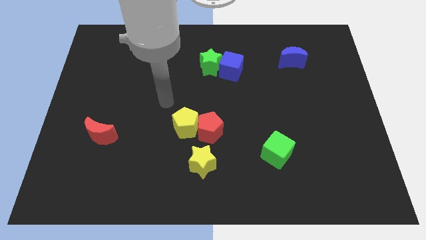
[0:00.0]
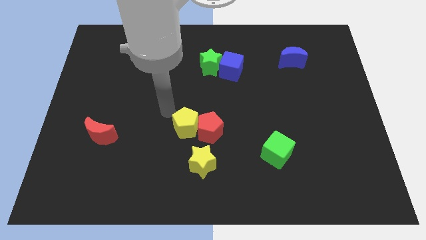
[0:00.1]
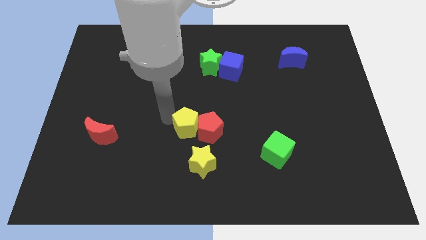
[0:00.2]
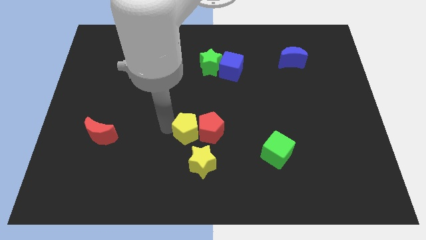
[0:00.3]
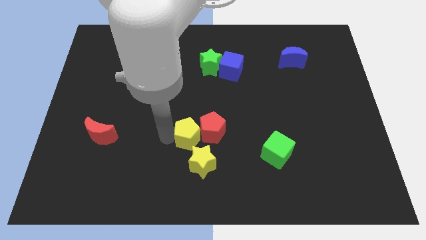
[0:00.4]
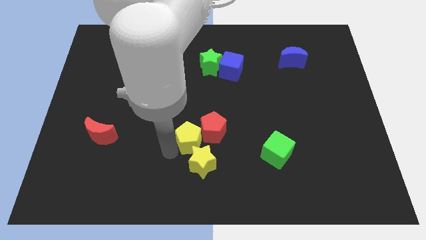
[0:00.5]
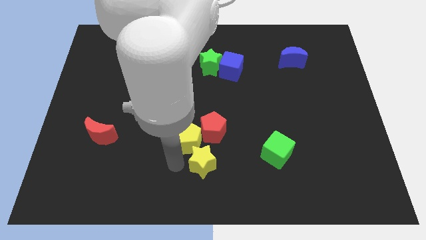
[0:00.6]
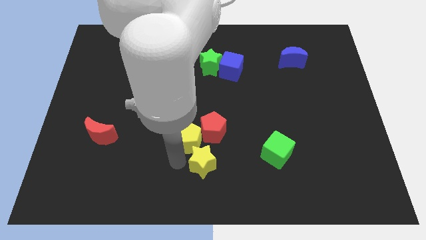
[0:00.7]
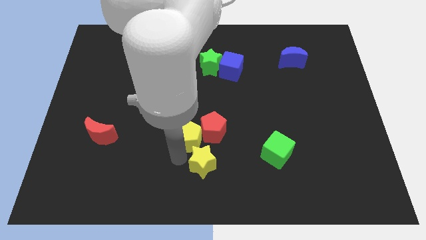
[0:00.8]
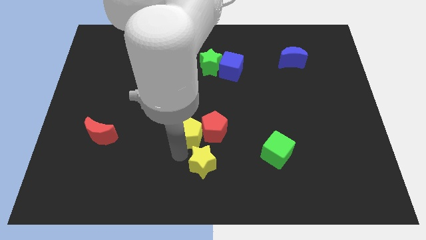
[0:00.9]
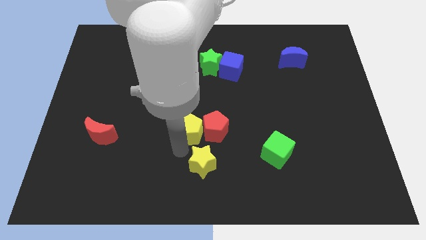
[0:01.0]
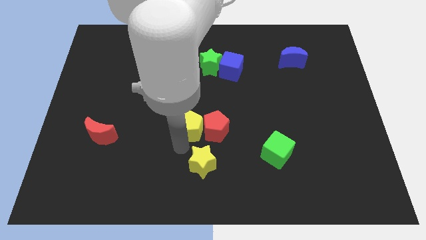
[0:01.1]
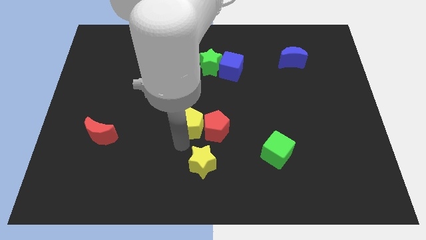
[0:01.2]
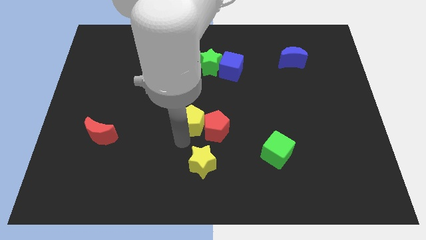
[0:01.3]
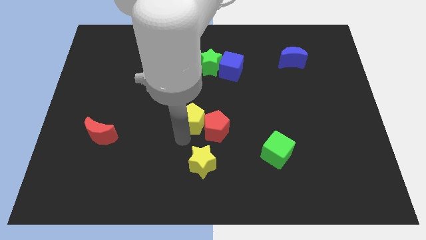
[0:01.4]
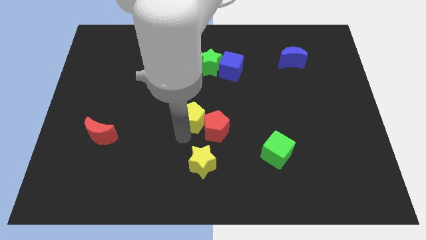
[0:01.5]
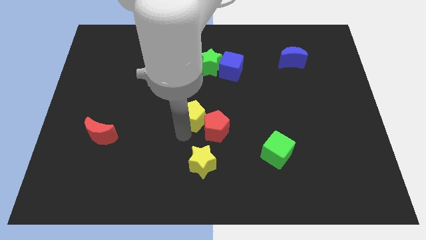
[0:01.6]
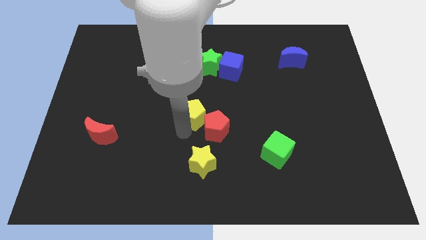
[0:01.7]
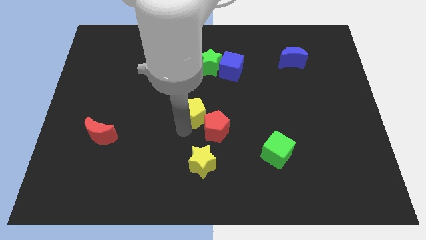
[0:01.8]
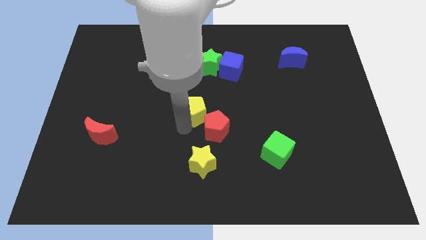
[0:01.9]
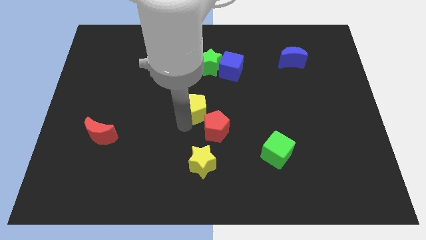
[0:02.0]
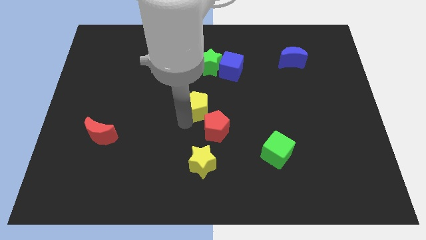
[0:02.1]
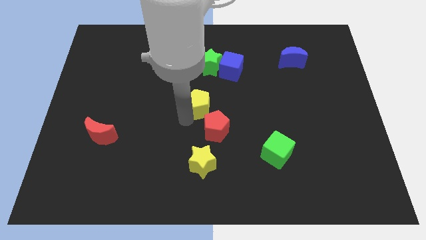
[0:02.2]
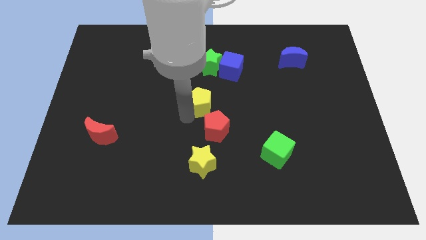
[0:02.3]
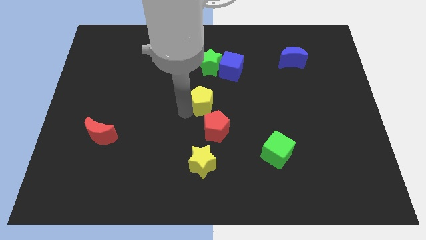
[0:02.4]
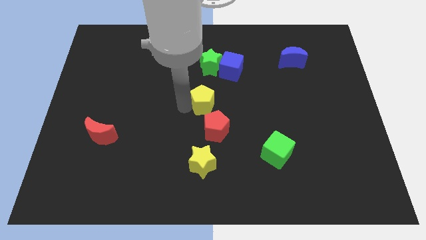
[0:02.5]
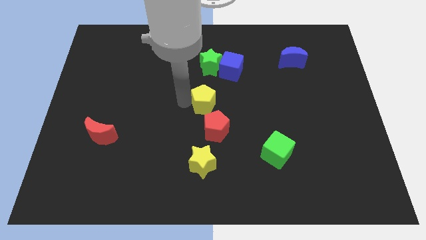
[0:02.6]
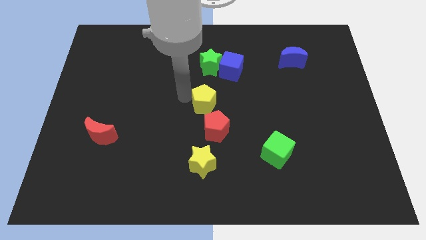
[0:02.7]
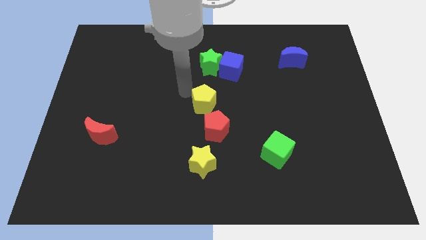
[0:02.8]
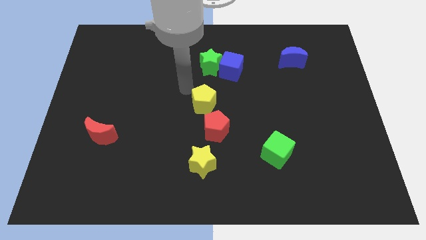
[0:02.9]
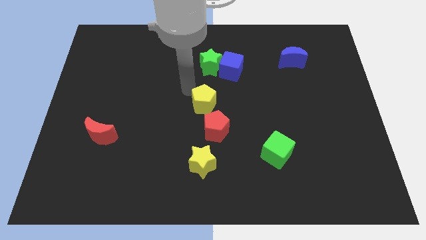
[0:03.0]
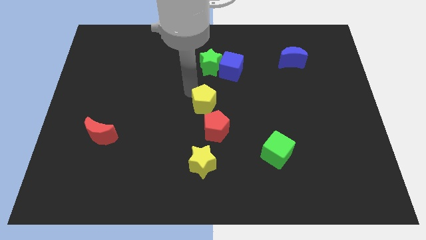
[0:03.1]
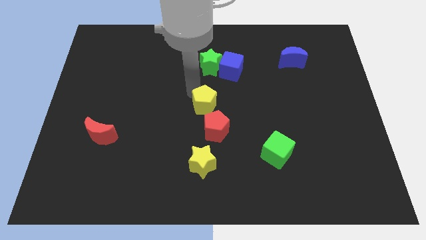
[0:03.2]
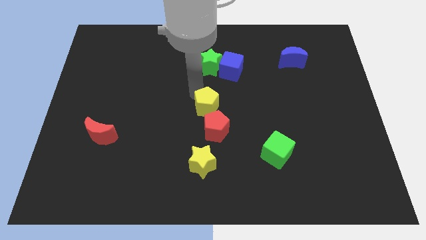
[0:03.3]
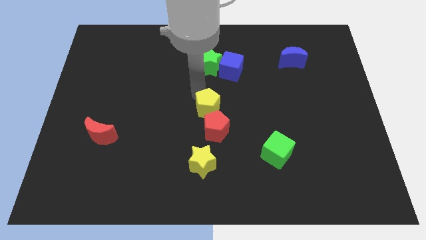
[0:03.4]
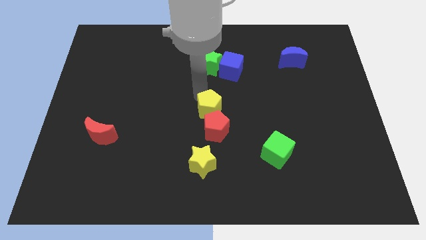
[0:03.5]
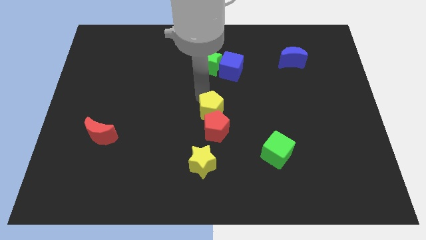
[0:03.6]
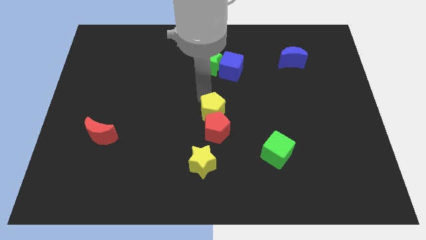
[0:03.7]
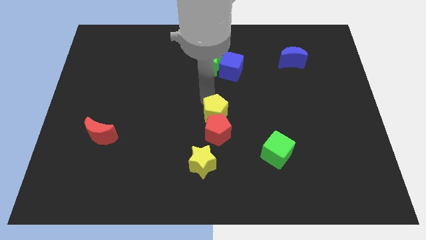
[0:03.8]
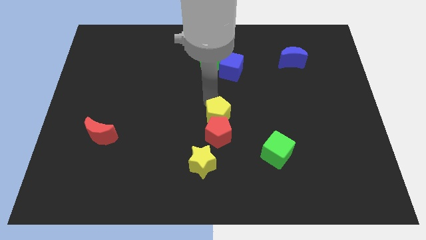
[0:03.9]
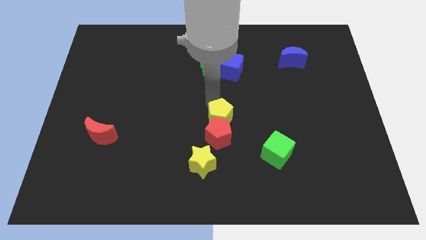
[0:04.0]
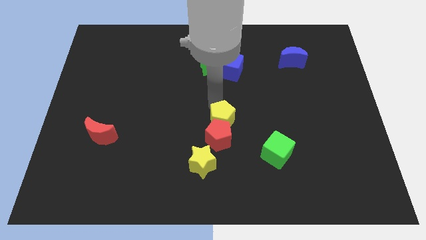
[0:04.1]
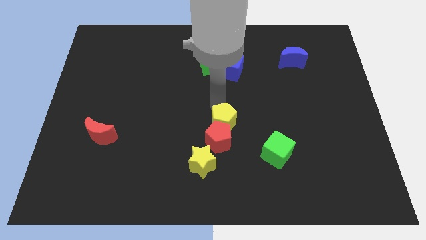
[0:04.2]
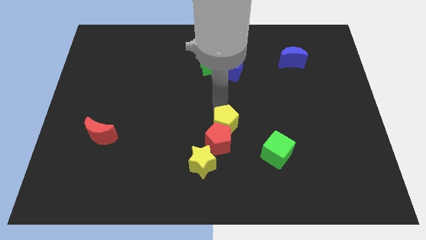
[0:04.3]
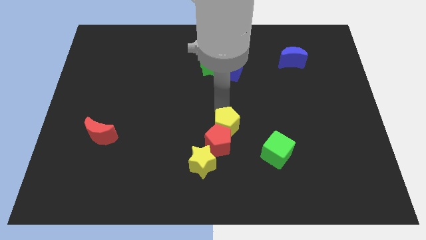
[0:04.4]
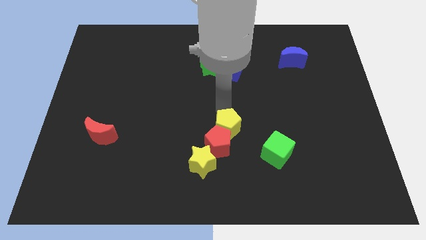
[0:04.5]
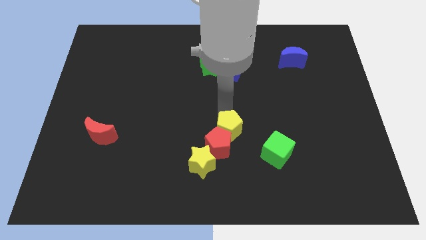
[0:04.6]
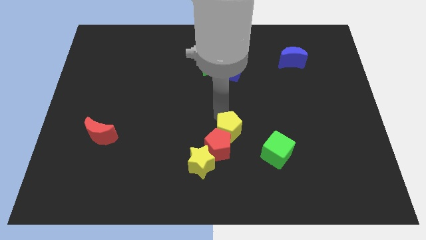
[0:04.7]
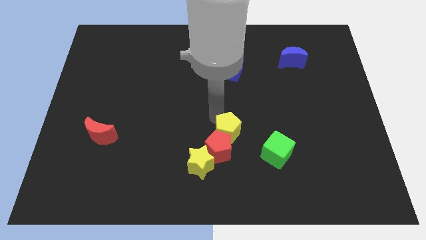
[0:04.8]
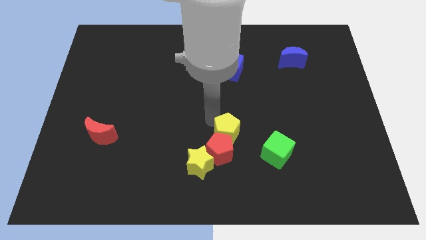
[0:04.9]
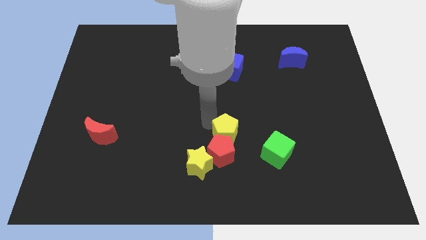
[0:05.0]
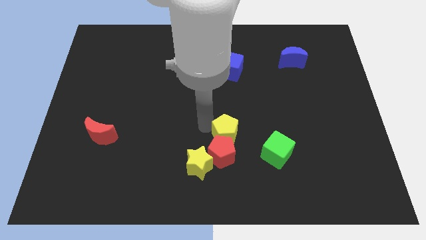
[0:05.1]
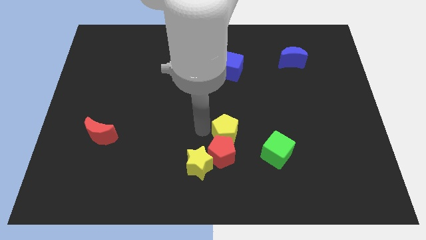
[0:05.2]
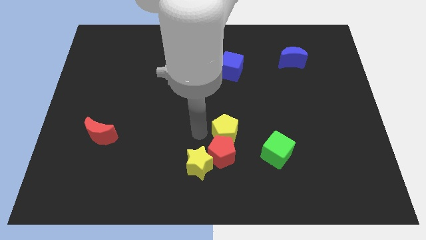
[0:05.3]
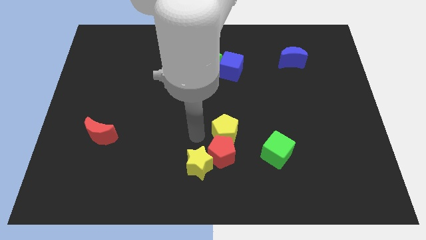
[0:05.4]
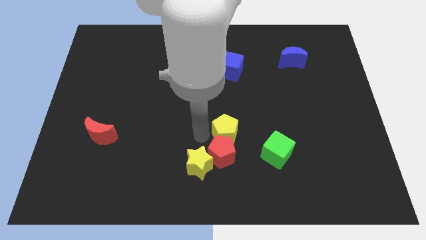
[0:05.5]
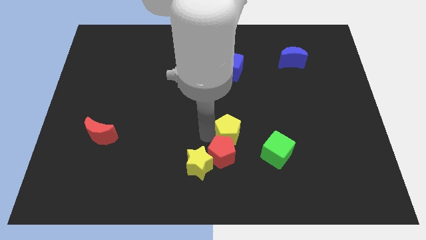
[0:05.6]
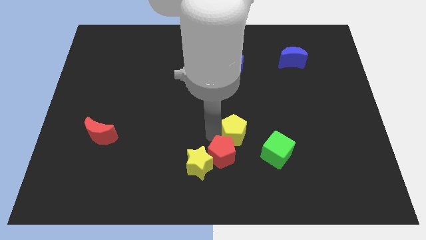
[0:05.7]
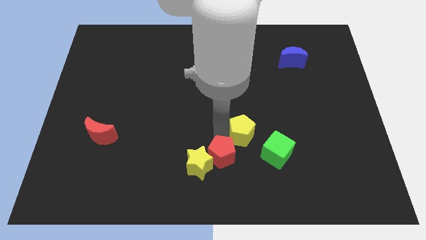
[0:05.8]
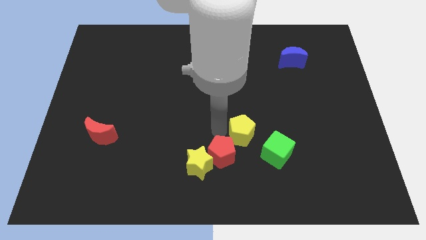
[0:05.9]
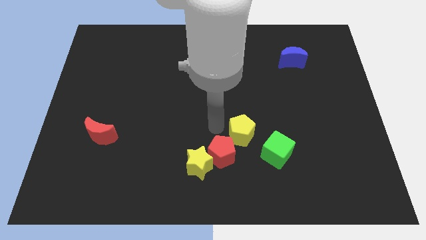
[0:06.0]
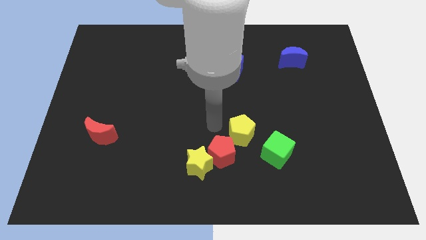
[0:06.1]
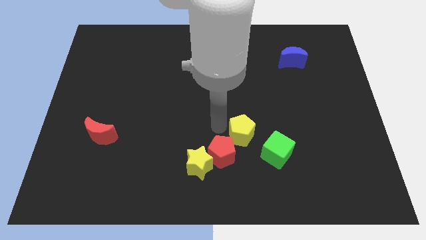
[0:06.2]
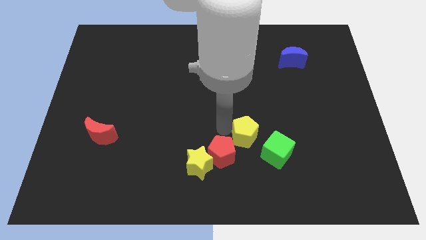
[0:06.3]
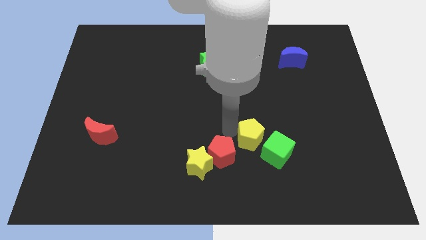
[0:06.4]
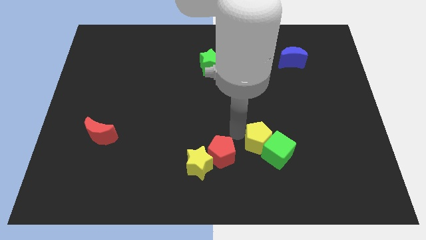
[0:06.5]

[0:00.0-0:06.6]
push the yellow pentagon towards the green cube
